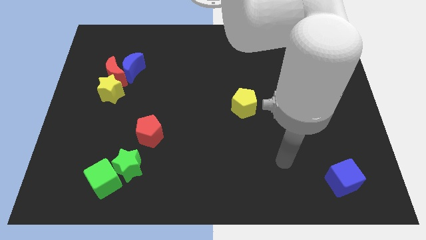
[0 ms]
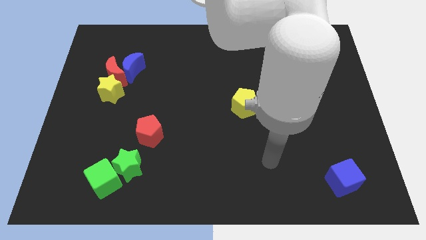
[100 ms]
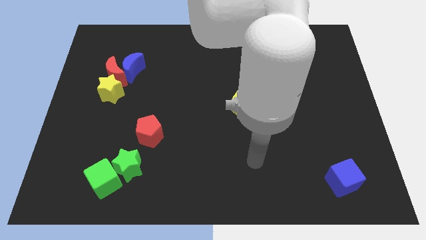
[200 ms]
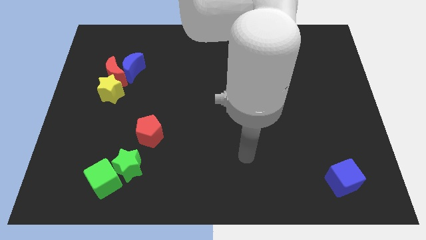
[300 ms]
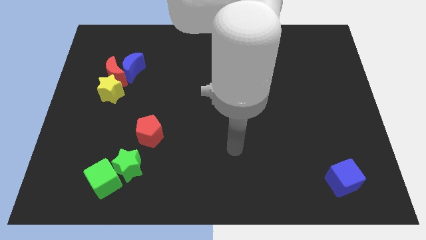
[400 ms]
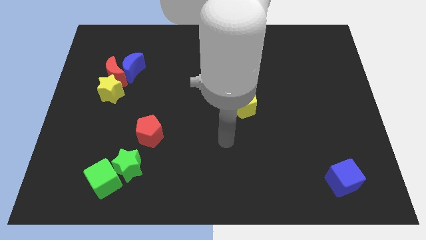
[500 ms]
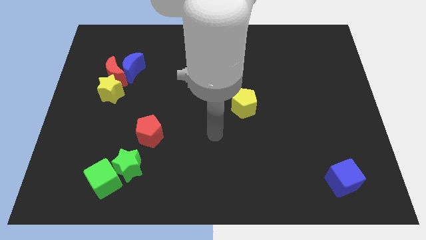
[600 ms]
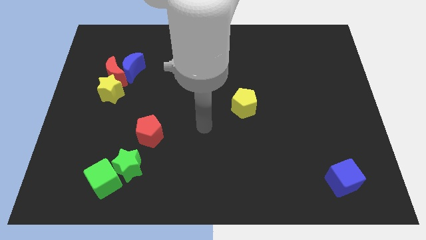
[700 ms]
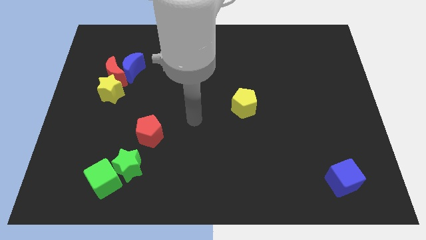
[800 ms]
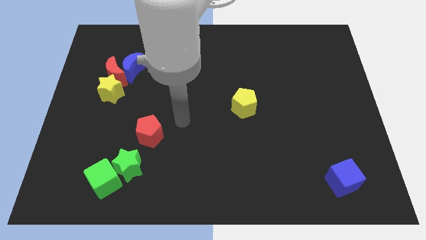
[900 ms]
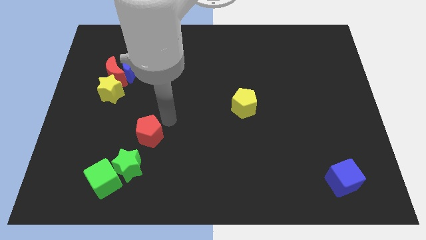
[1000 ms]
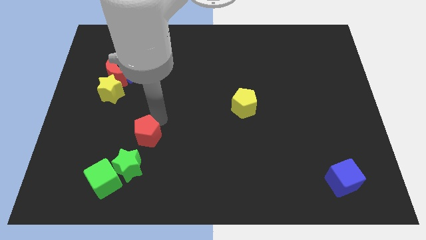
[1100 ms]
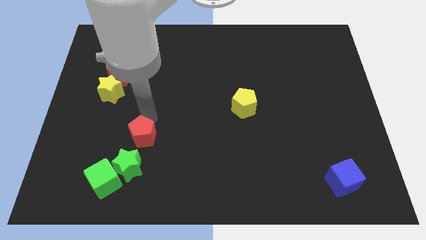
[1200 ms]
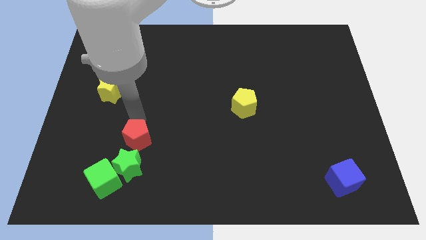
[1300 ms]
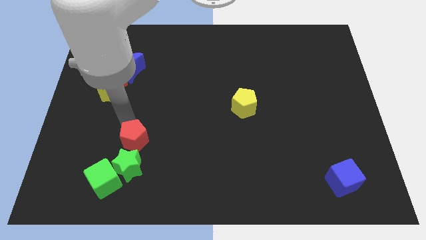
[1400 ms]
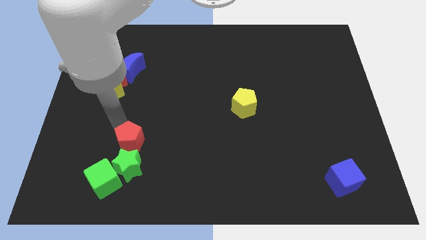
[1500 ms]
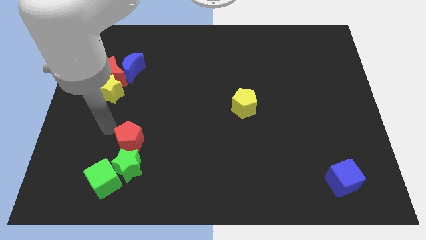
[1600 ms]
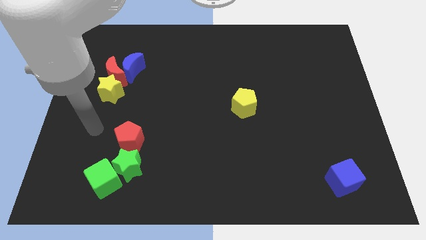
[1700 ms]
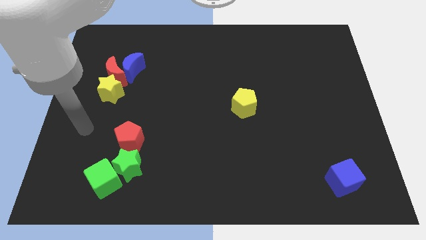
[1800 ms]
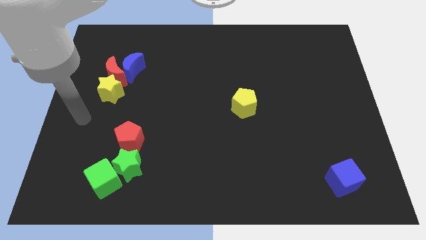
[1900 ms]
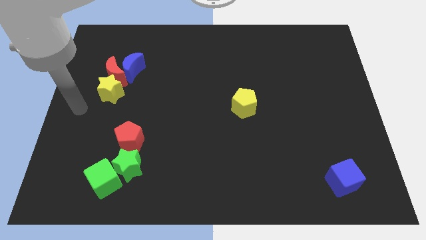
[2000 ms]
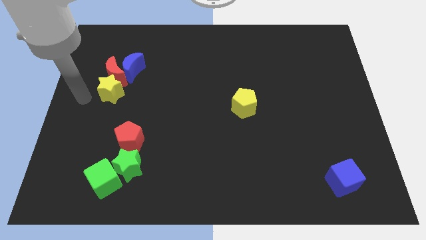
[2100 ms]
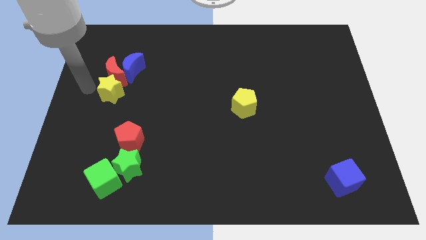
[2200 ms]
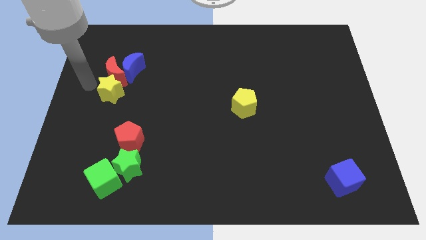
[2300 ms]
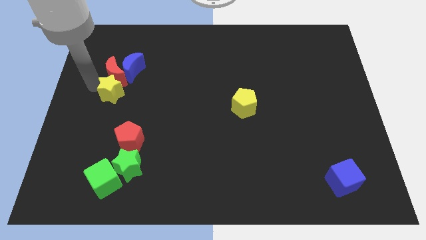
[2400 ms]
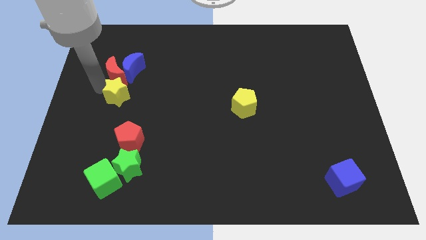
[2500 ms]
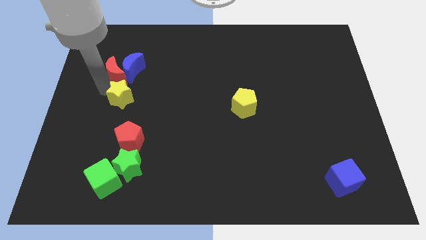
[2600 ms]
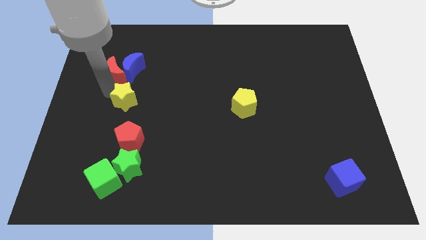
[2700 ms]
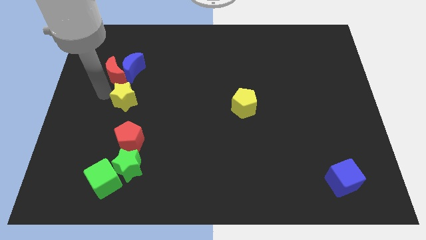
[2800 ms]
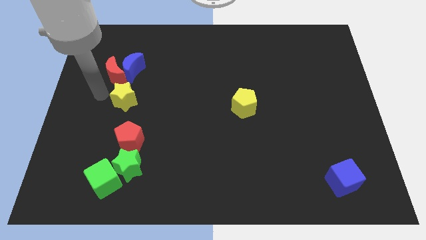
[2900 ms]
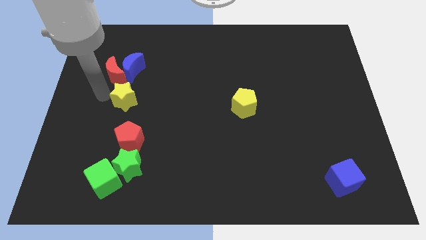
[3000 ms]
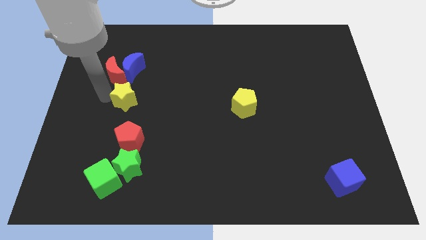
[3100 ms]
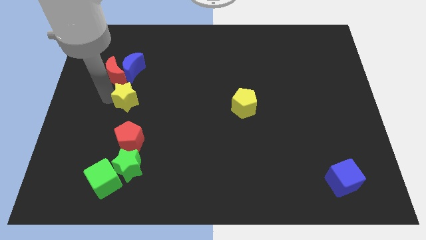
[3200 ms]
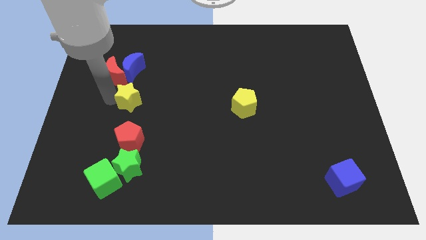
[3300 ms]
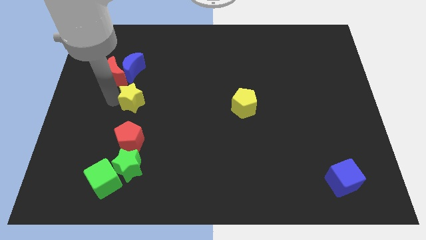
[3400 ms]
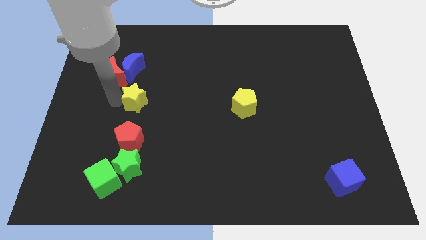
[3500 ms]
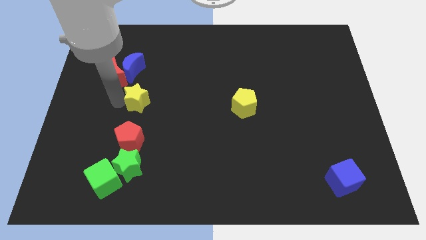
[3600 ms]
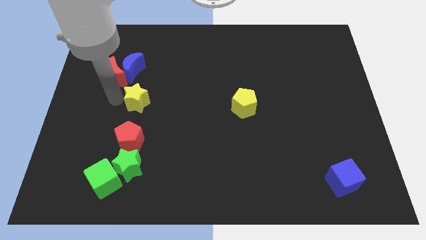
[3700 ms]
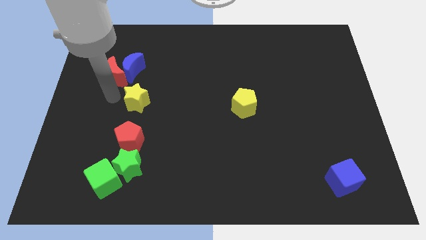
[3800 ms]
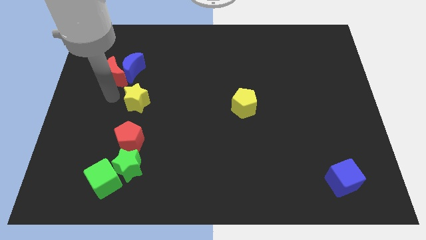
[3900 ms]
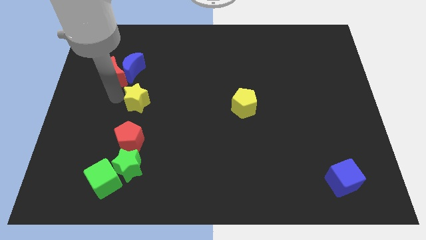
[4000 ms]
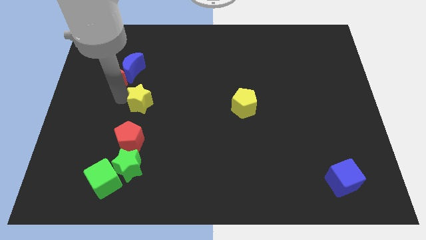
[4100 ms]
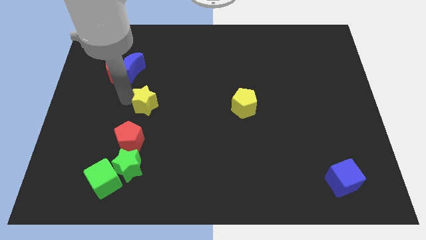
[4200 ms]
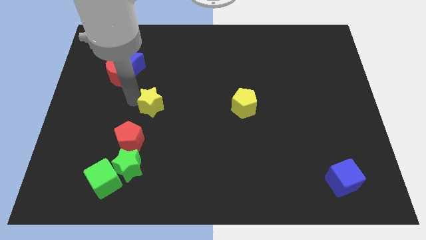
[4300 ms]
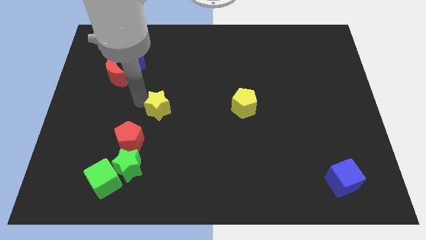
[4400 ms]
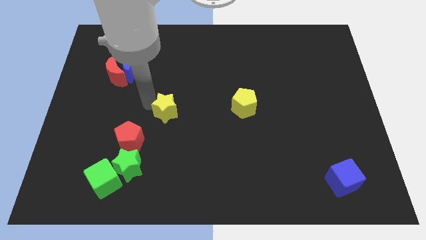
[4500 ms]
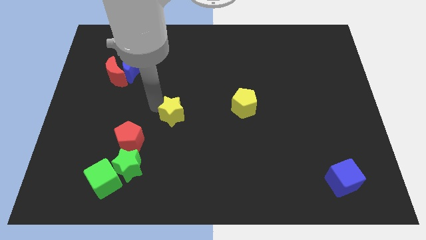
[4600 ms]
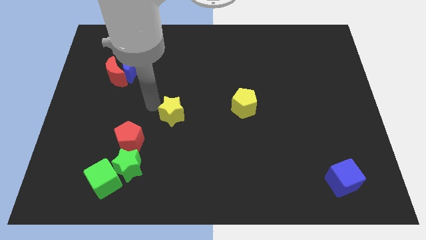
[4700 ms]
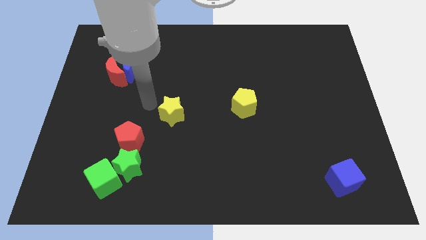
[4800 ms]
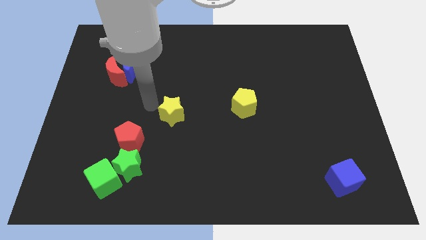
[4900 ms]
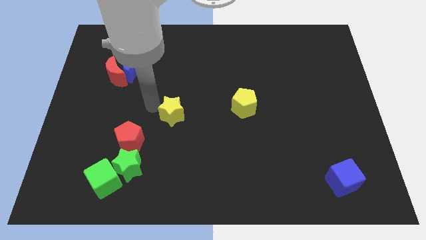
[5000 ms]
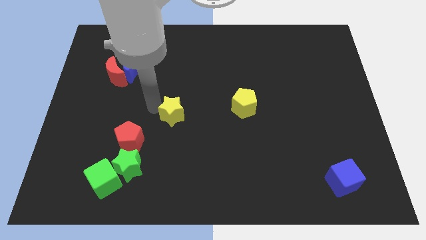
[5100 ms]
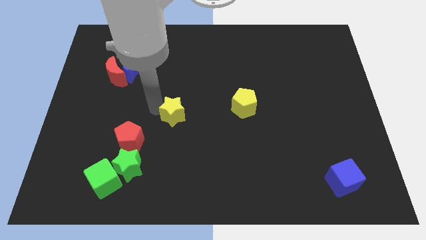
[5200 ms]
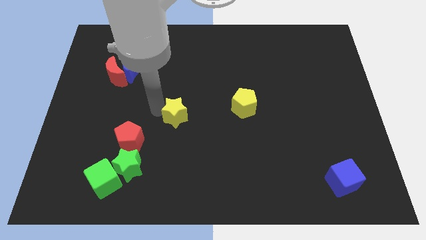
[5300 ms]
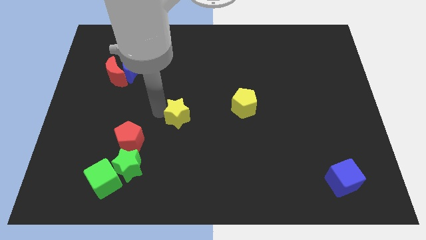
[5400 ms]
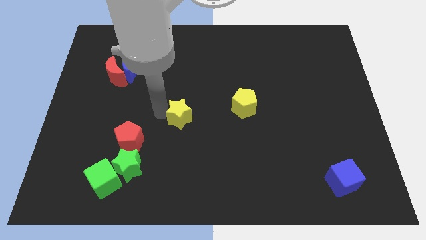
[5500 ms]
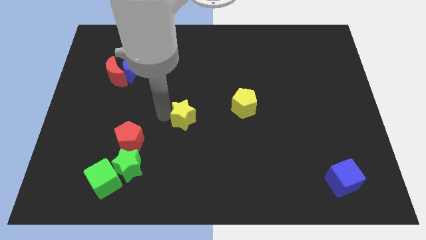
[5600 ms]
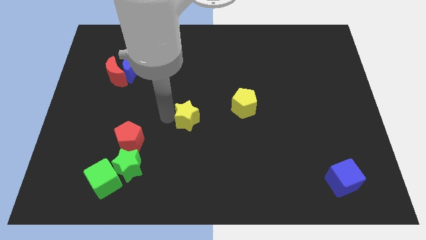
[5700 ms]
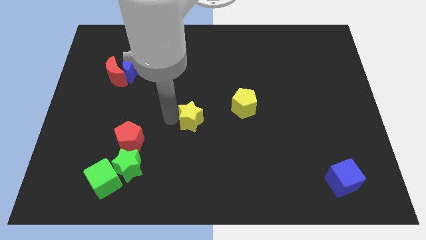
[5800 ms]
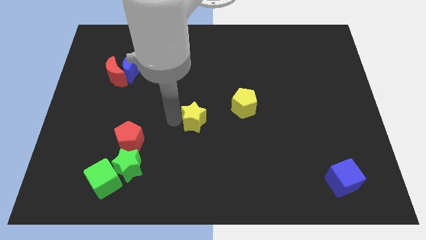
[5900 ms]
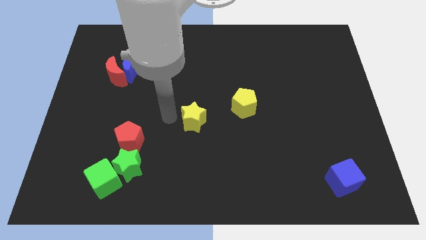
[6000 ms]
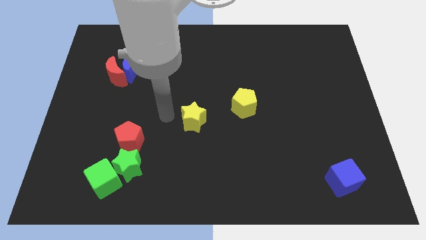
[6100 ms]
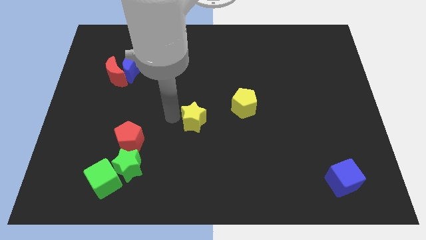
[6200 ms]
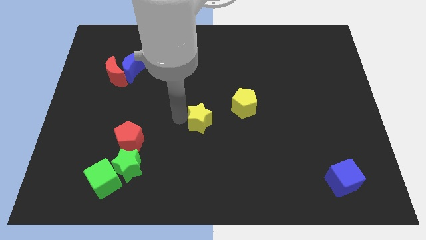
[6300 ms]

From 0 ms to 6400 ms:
push the yellow star diagonally down and to the left of the yellow pentagon
